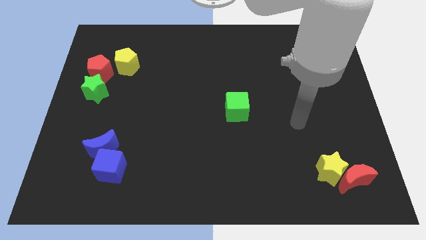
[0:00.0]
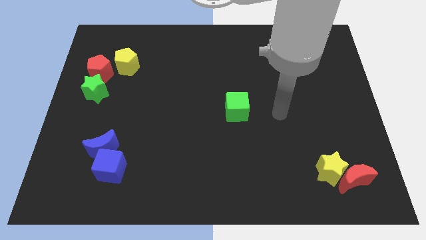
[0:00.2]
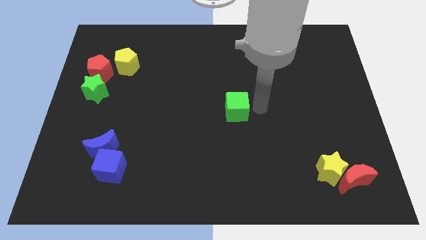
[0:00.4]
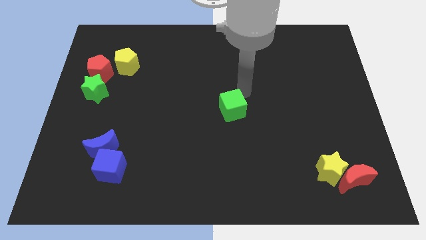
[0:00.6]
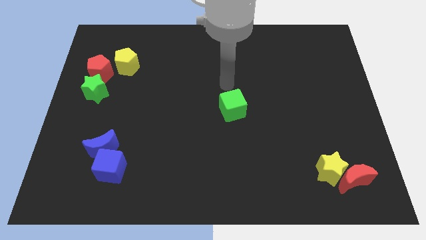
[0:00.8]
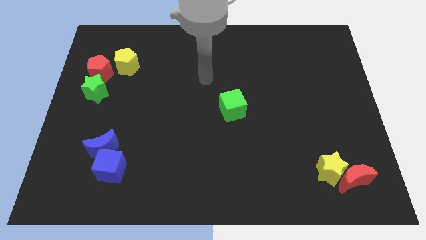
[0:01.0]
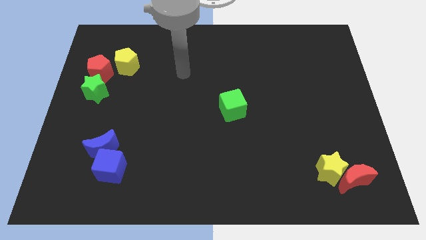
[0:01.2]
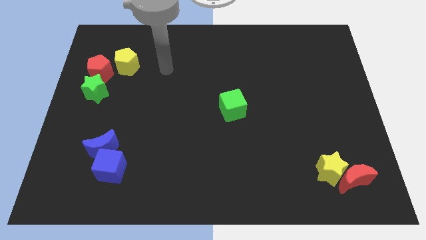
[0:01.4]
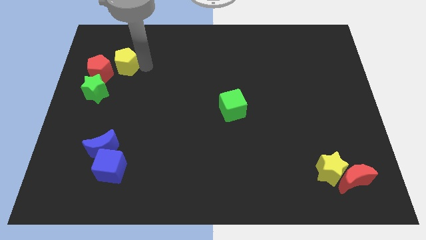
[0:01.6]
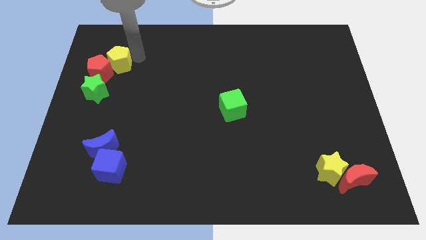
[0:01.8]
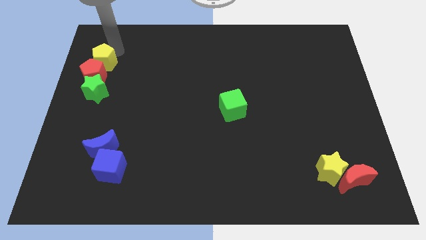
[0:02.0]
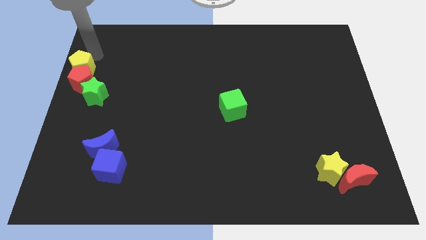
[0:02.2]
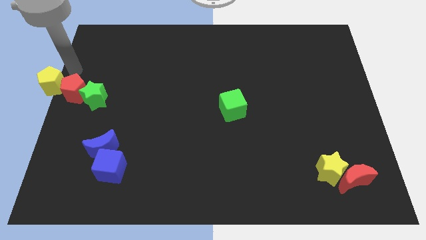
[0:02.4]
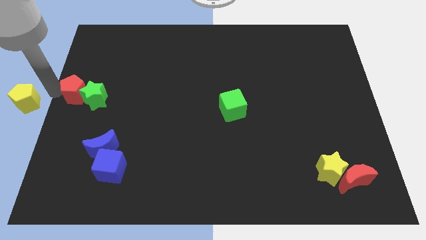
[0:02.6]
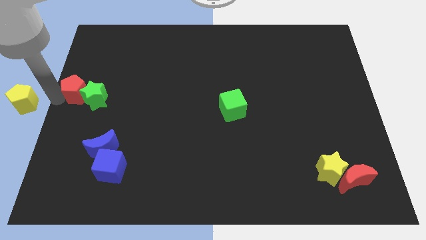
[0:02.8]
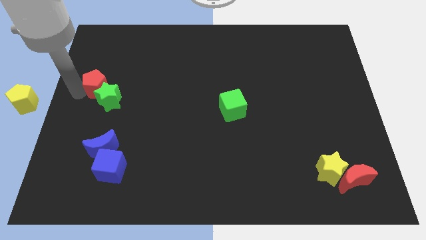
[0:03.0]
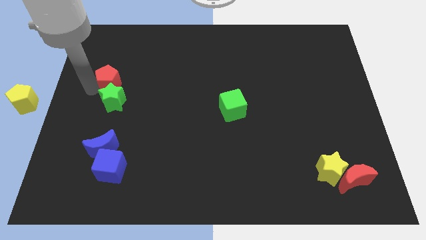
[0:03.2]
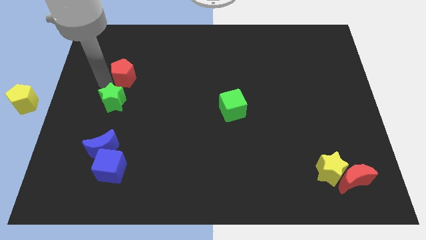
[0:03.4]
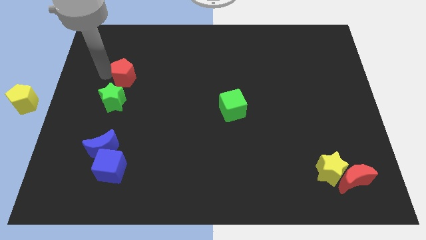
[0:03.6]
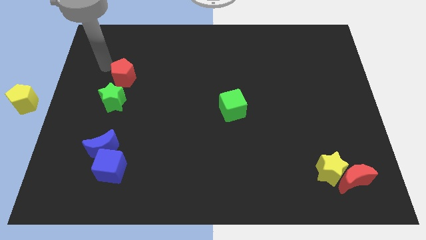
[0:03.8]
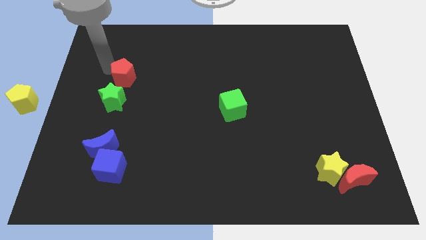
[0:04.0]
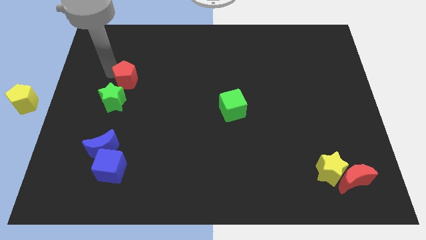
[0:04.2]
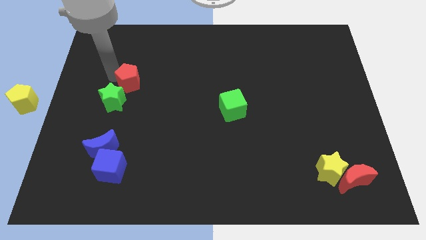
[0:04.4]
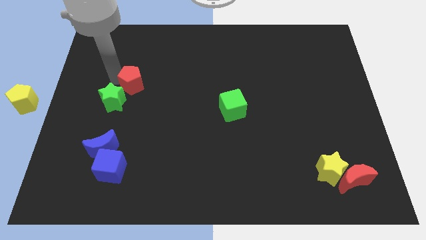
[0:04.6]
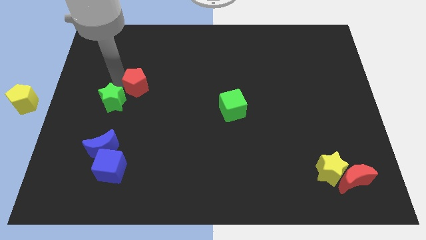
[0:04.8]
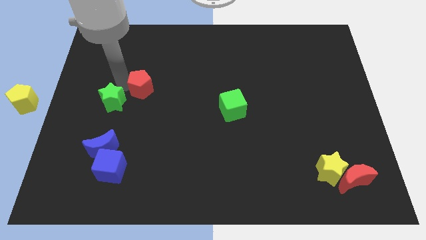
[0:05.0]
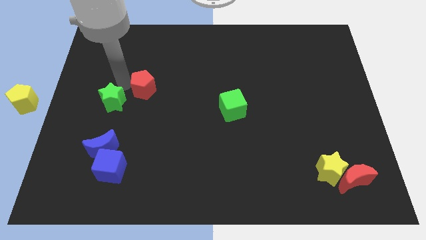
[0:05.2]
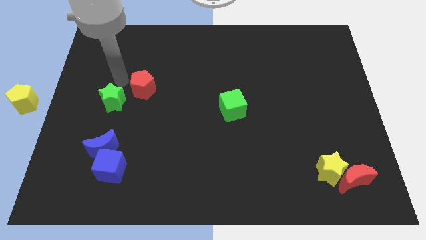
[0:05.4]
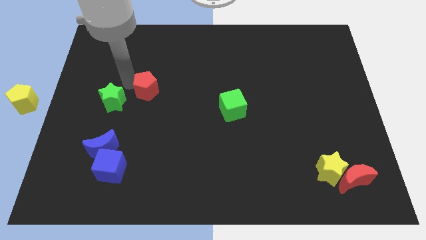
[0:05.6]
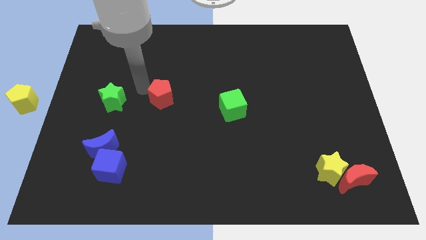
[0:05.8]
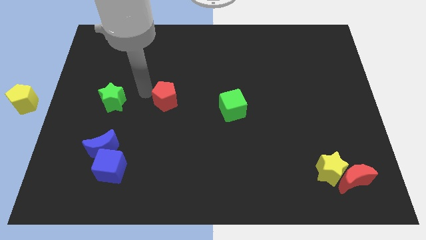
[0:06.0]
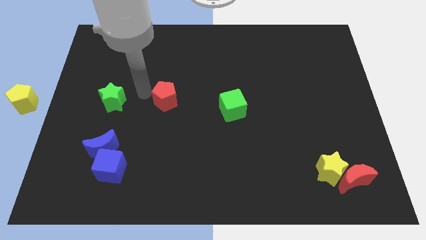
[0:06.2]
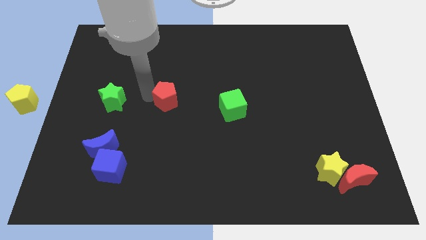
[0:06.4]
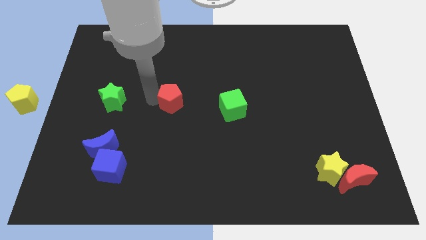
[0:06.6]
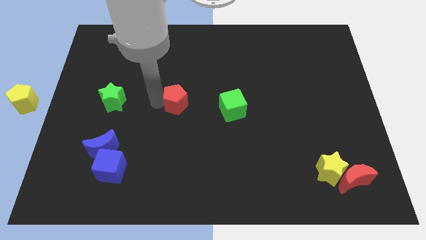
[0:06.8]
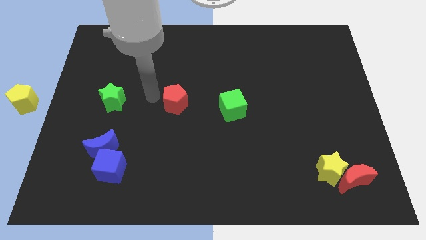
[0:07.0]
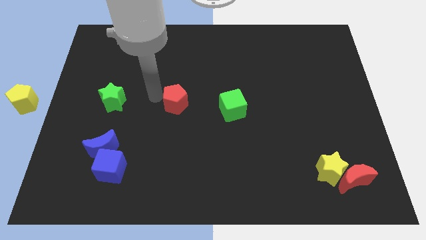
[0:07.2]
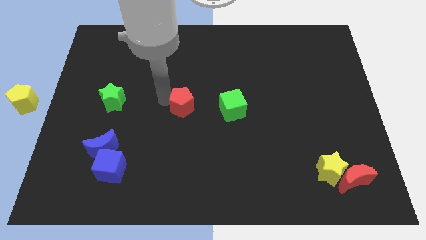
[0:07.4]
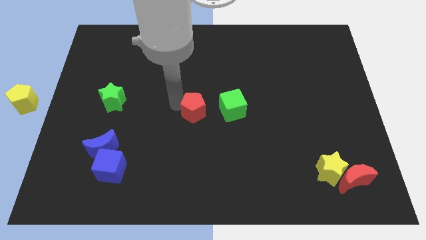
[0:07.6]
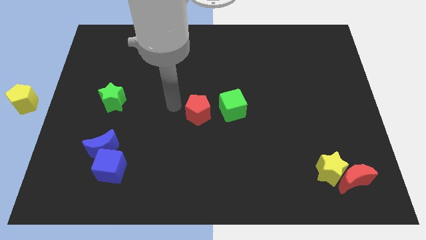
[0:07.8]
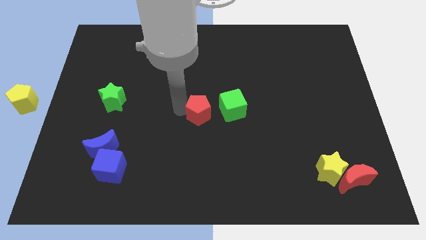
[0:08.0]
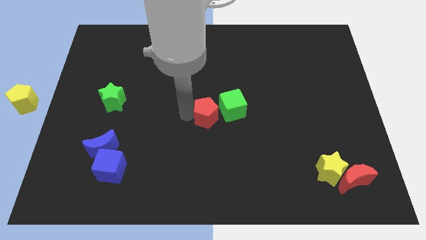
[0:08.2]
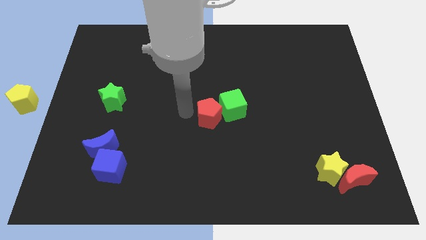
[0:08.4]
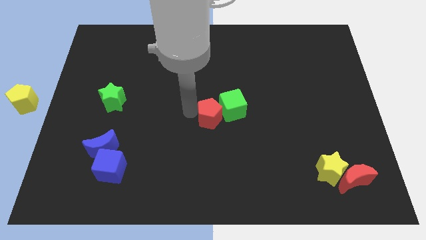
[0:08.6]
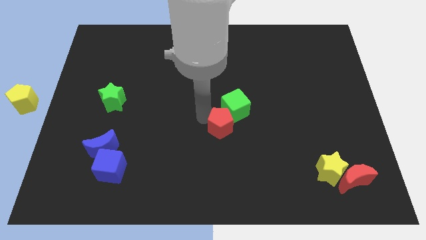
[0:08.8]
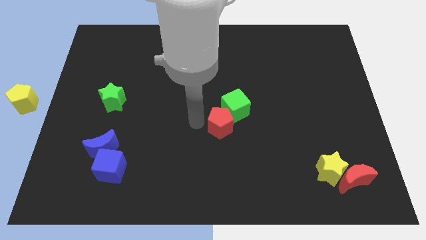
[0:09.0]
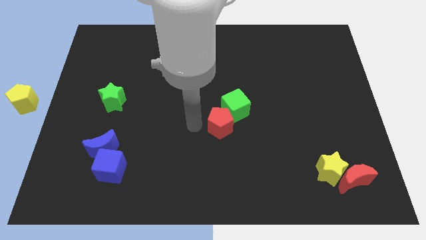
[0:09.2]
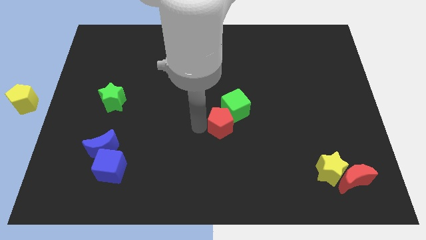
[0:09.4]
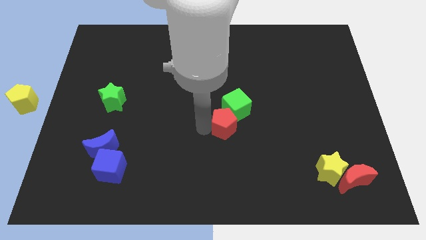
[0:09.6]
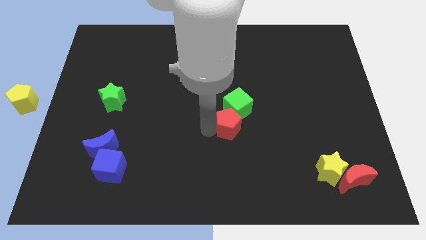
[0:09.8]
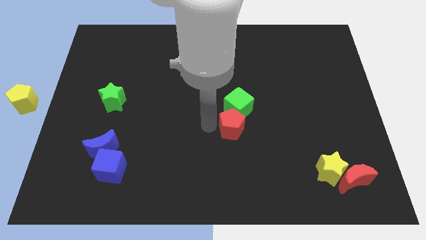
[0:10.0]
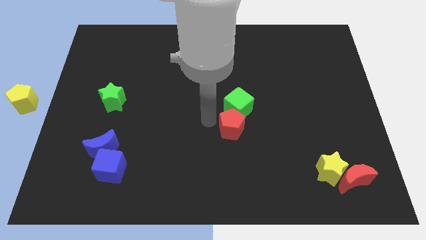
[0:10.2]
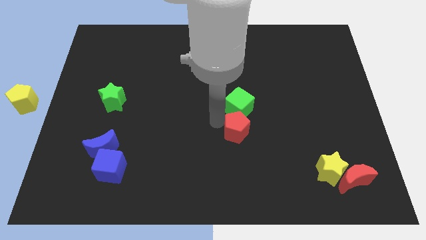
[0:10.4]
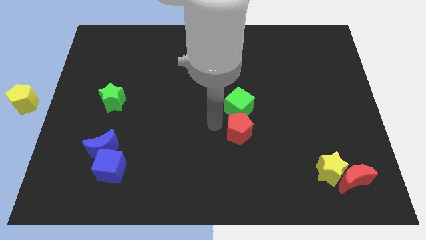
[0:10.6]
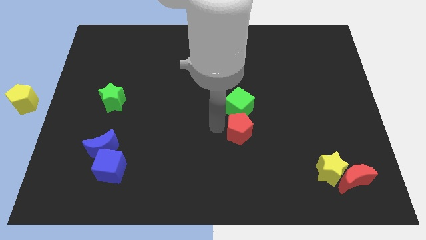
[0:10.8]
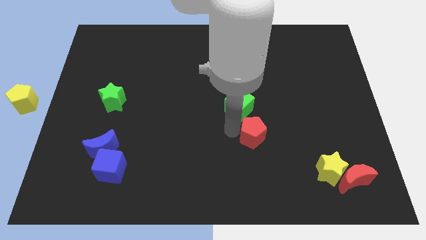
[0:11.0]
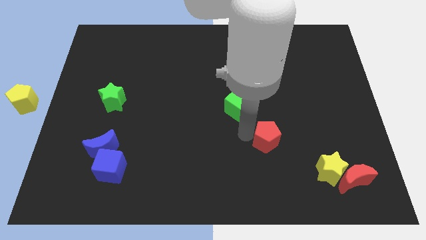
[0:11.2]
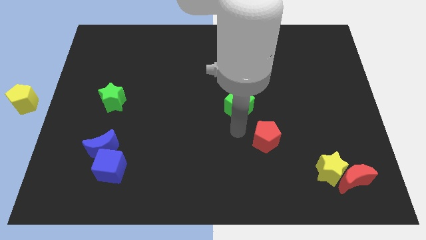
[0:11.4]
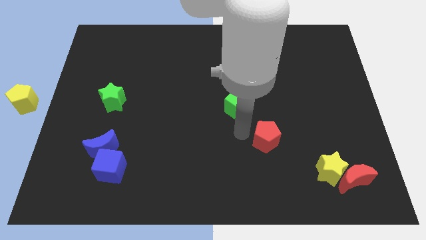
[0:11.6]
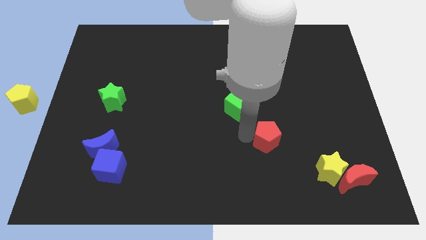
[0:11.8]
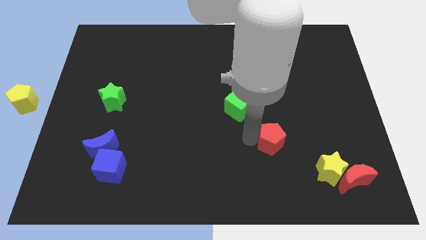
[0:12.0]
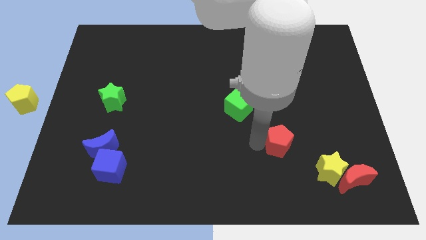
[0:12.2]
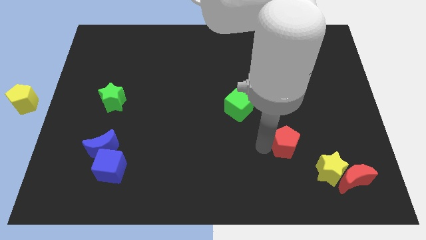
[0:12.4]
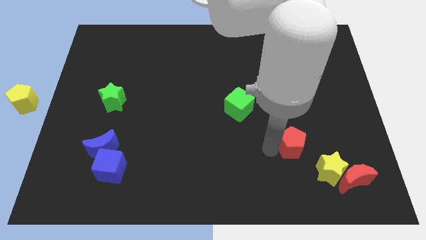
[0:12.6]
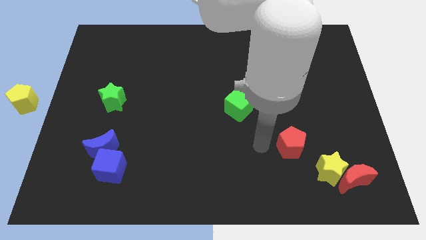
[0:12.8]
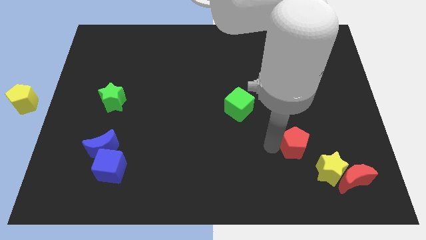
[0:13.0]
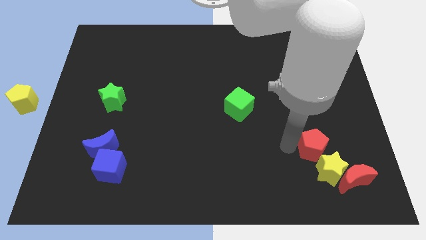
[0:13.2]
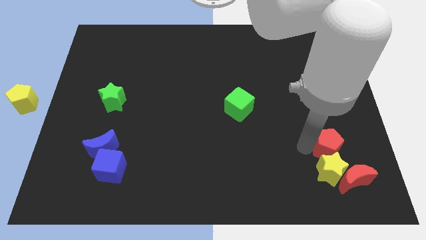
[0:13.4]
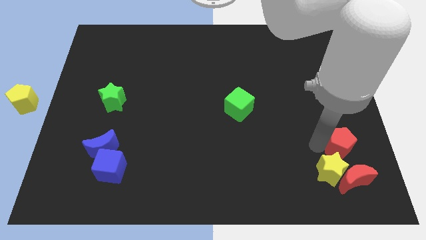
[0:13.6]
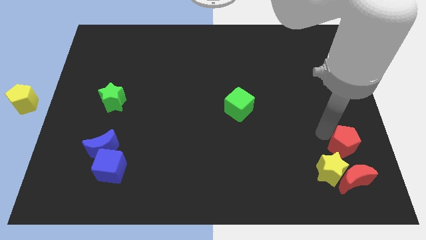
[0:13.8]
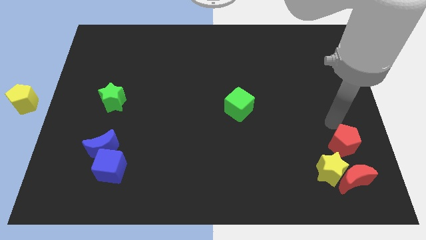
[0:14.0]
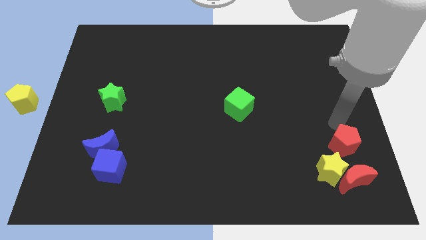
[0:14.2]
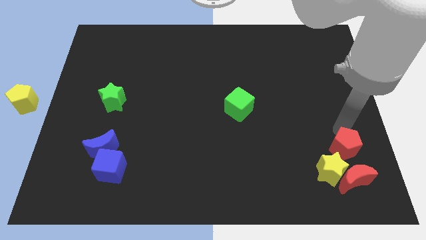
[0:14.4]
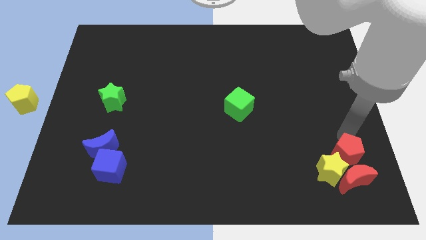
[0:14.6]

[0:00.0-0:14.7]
slide the red pentagon close to the red moon
